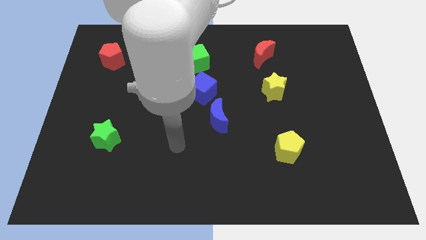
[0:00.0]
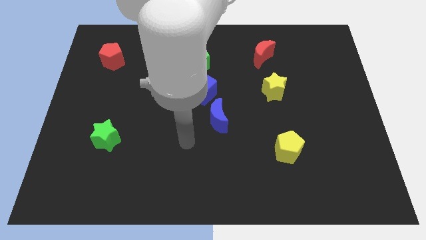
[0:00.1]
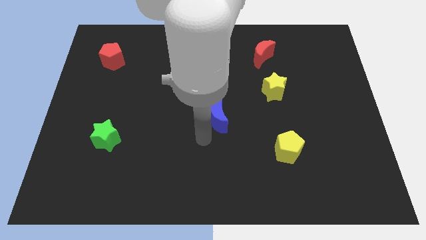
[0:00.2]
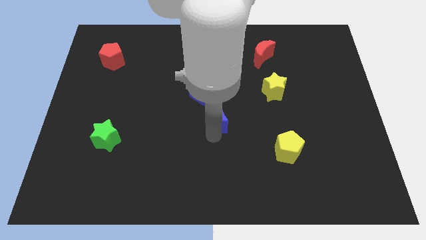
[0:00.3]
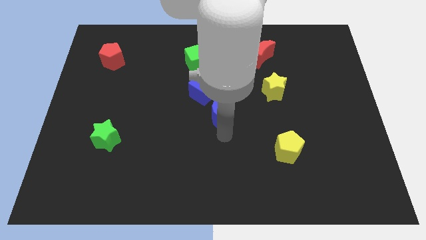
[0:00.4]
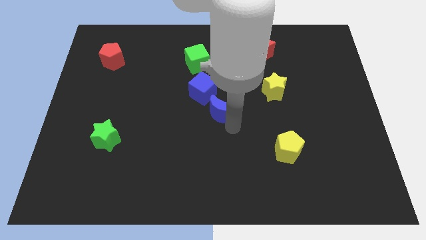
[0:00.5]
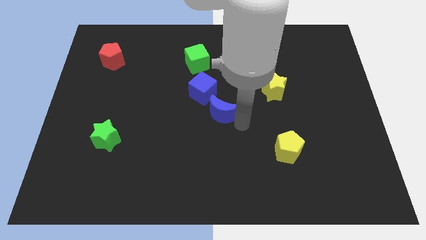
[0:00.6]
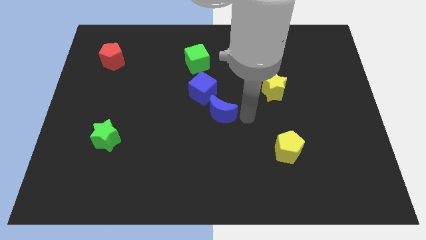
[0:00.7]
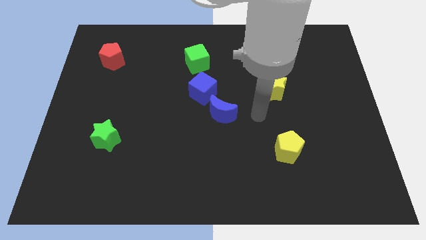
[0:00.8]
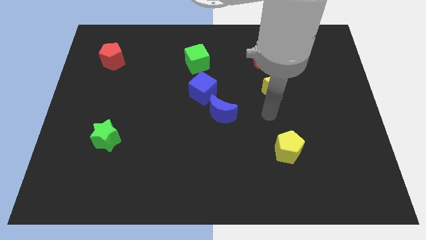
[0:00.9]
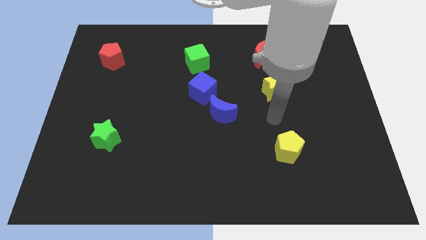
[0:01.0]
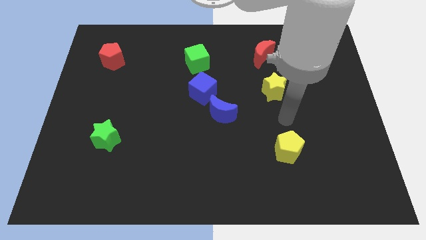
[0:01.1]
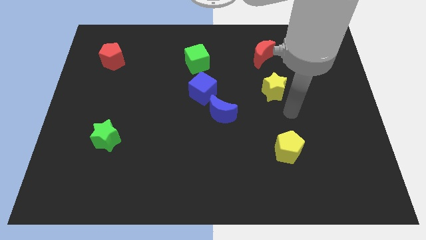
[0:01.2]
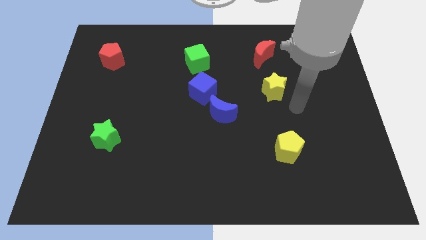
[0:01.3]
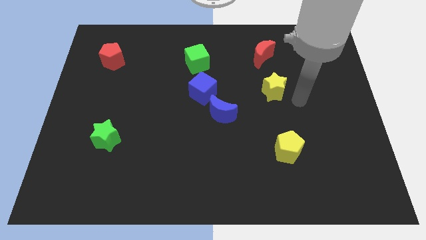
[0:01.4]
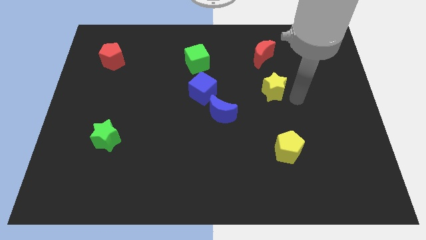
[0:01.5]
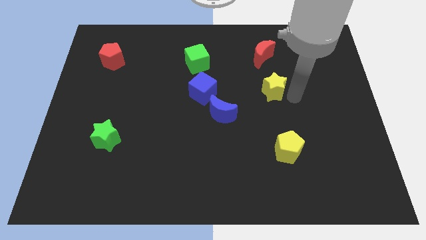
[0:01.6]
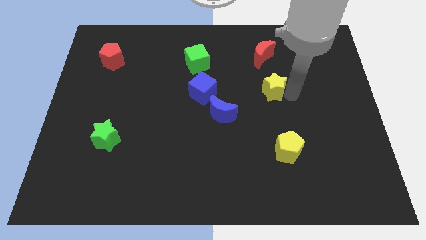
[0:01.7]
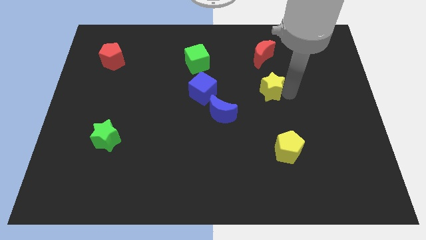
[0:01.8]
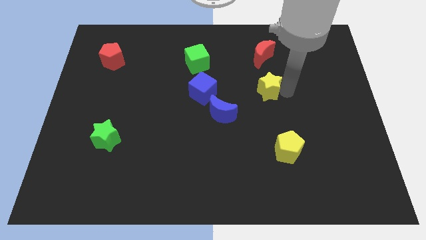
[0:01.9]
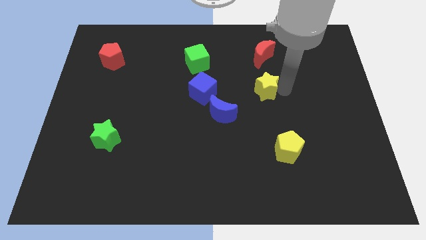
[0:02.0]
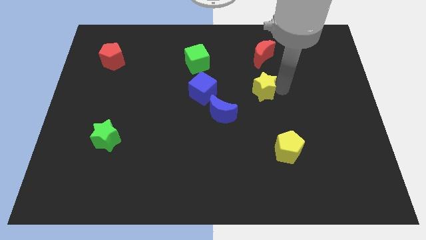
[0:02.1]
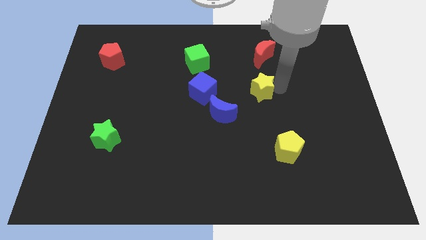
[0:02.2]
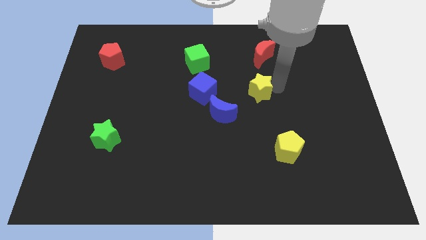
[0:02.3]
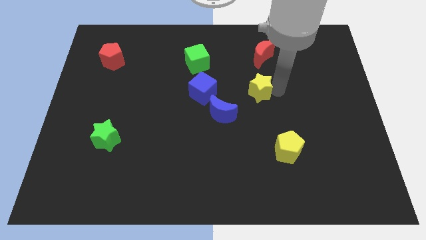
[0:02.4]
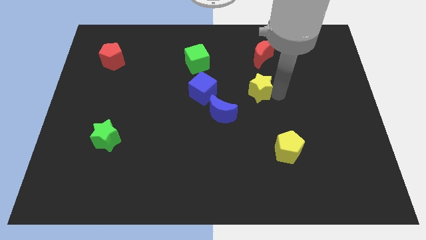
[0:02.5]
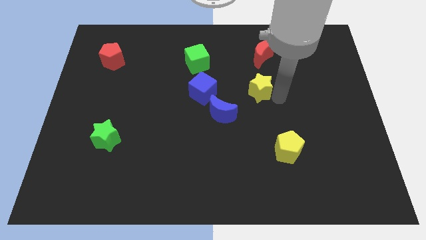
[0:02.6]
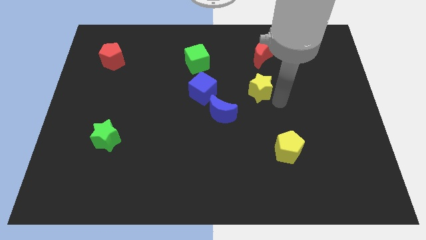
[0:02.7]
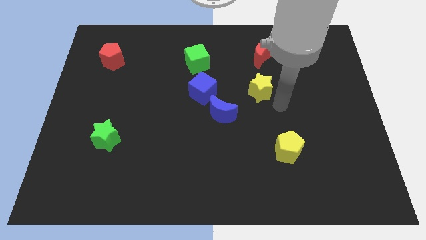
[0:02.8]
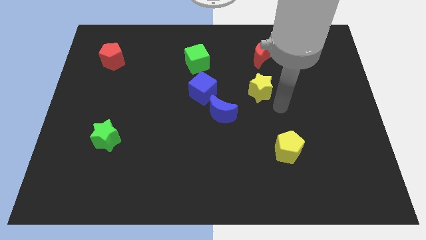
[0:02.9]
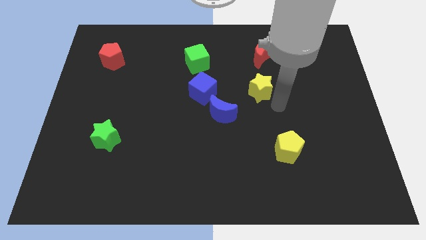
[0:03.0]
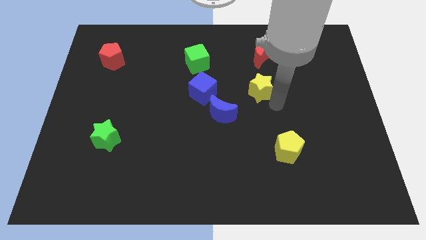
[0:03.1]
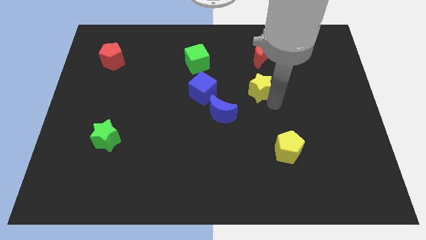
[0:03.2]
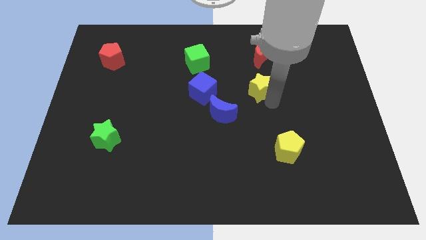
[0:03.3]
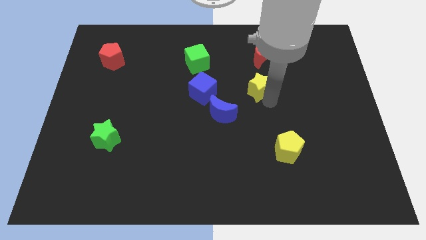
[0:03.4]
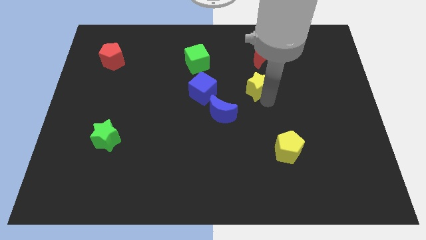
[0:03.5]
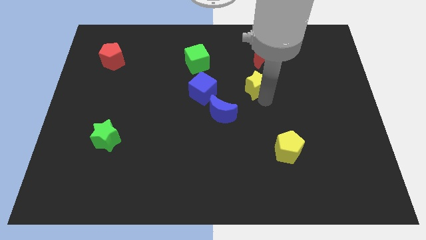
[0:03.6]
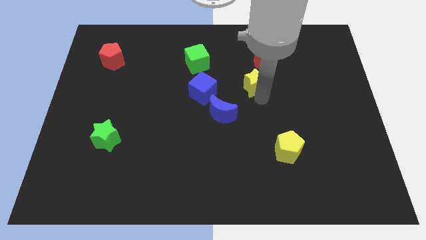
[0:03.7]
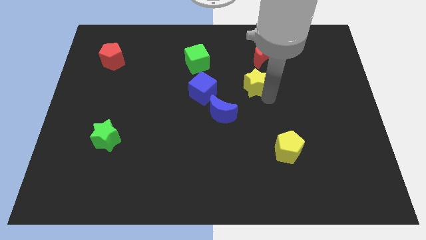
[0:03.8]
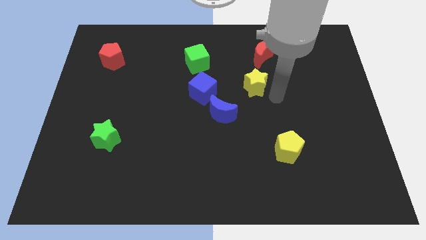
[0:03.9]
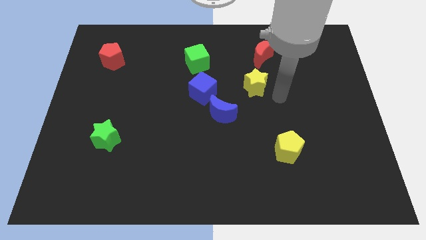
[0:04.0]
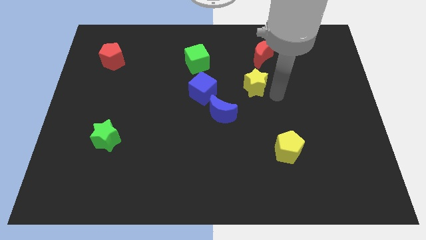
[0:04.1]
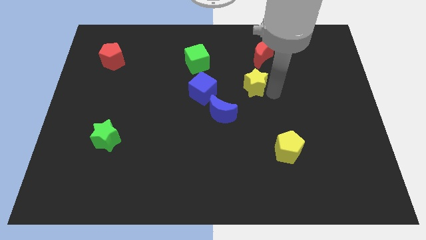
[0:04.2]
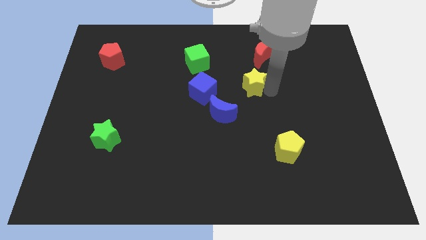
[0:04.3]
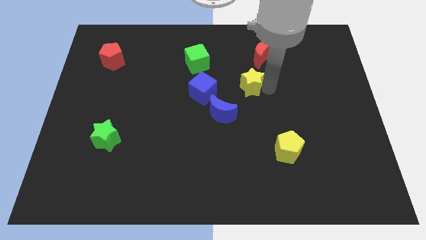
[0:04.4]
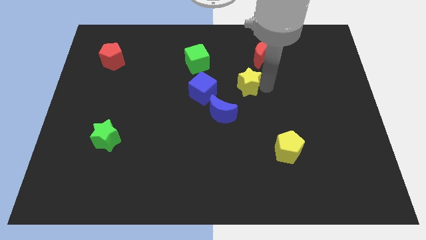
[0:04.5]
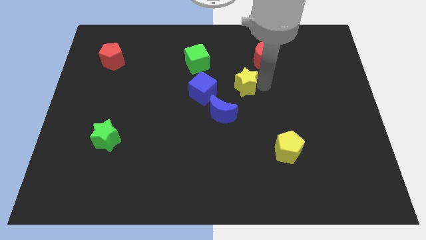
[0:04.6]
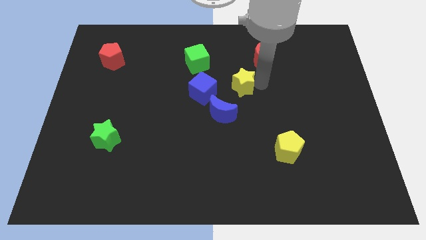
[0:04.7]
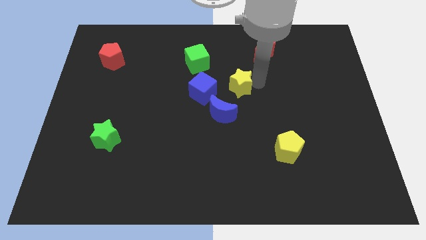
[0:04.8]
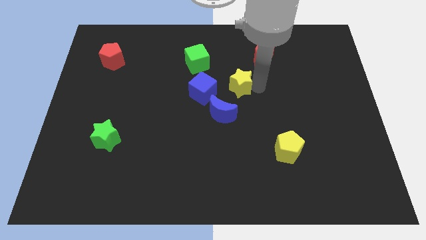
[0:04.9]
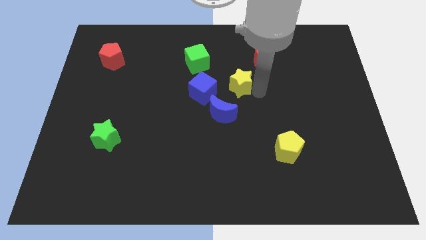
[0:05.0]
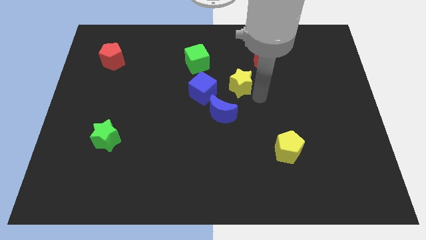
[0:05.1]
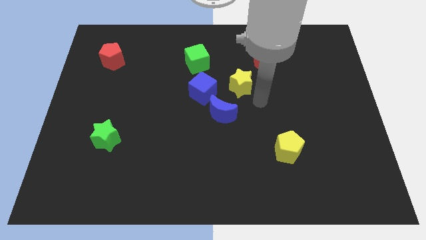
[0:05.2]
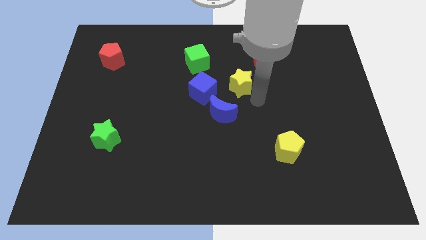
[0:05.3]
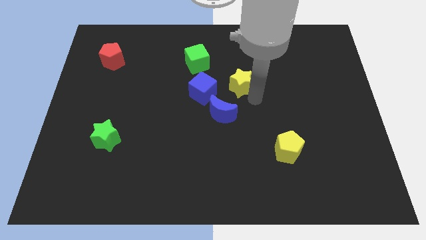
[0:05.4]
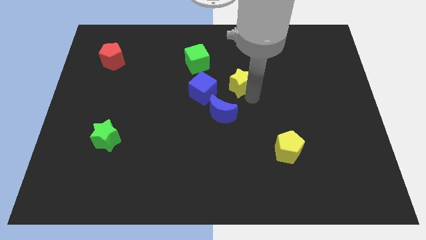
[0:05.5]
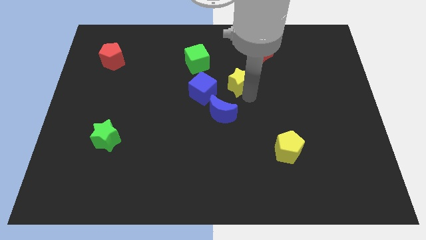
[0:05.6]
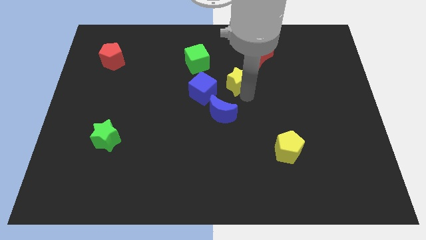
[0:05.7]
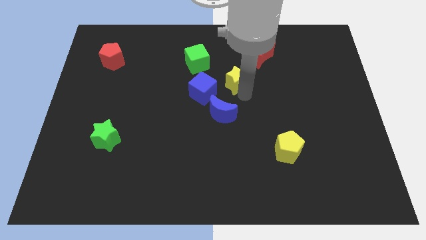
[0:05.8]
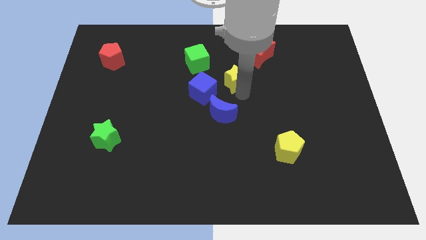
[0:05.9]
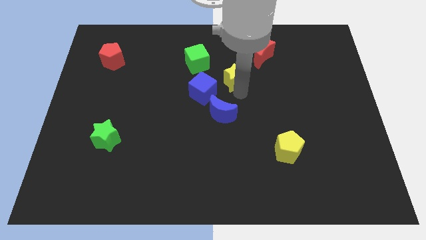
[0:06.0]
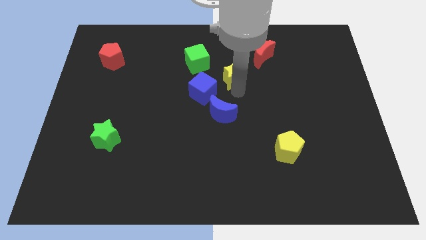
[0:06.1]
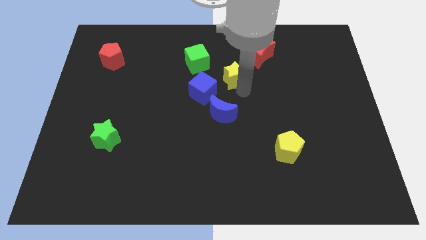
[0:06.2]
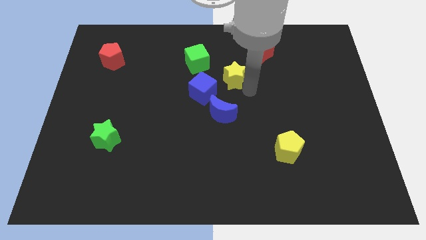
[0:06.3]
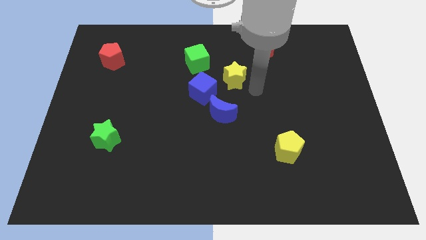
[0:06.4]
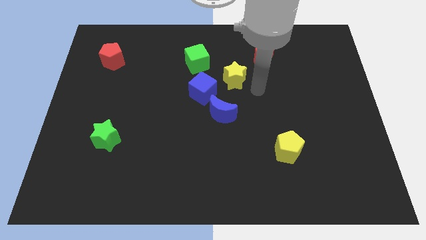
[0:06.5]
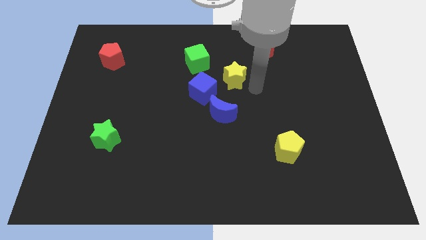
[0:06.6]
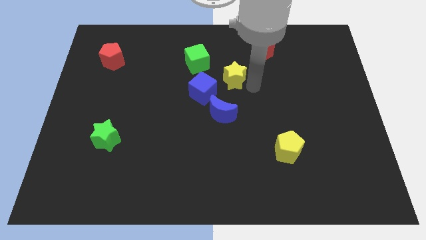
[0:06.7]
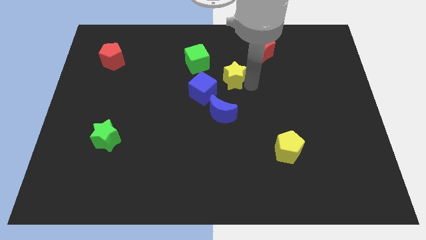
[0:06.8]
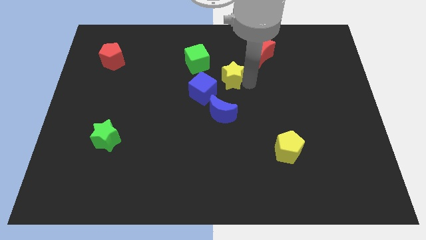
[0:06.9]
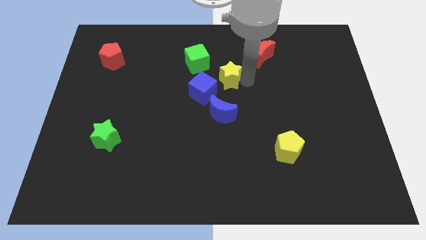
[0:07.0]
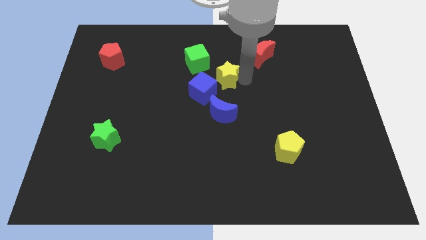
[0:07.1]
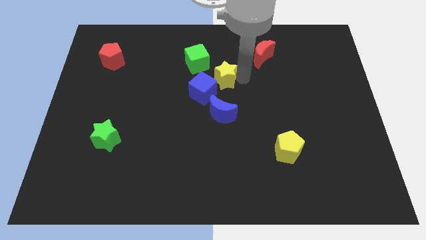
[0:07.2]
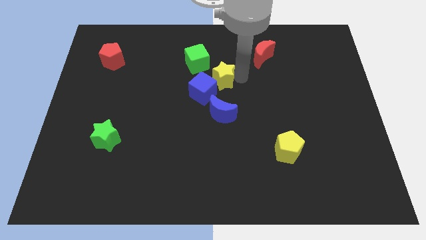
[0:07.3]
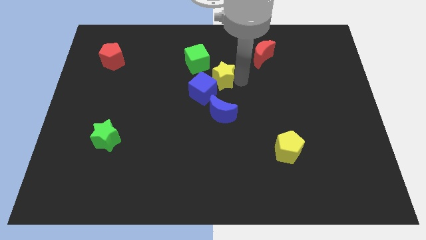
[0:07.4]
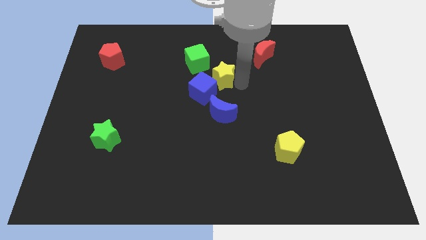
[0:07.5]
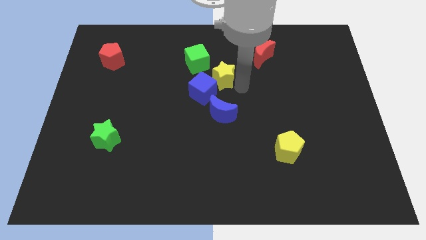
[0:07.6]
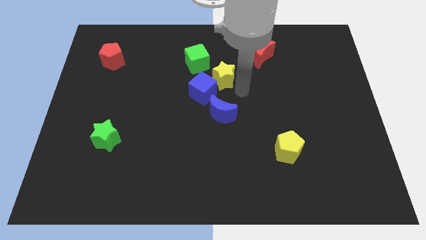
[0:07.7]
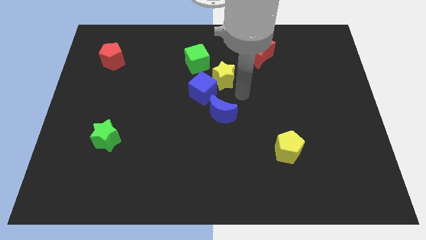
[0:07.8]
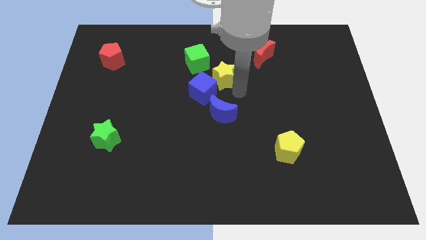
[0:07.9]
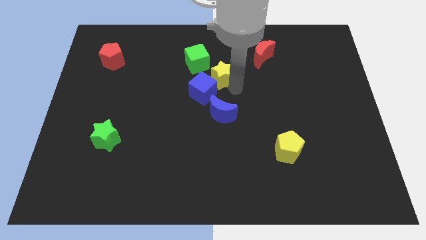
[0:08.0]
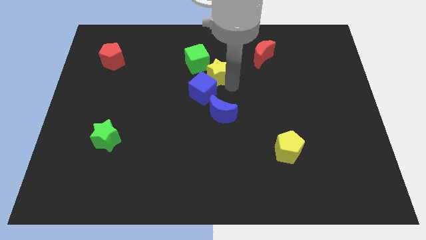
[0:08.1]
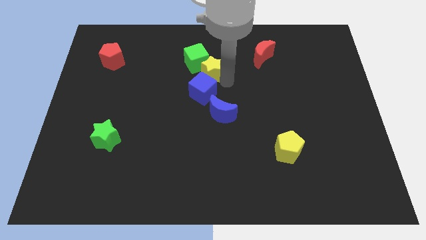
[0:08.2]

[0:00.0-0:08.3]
push the yellow star towards the green cube
